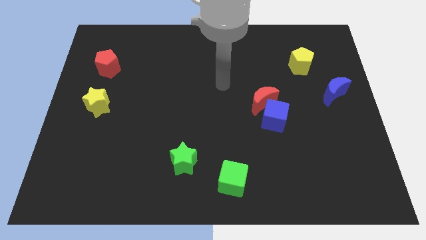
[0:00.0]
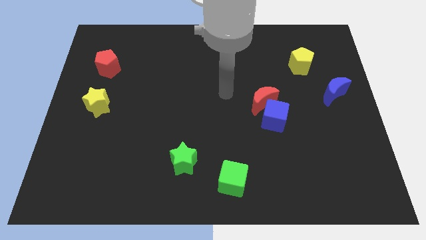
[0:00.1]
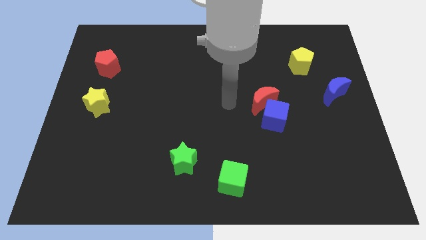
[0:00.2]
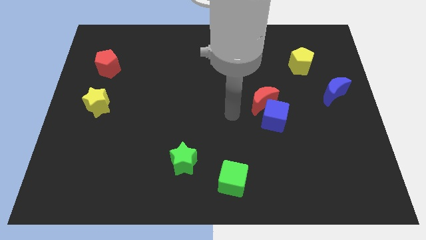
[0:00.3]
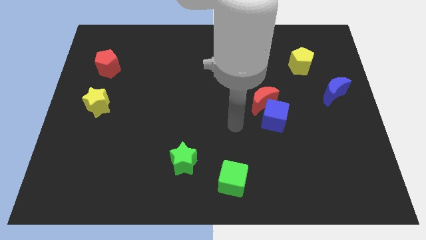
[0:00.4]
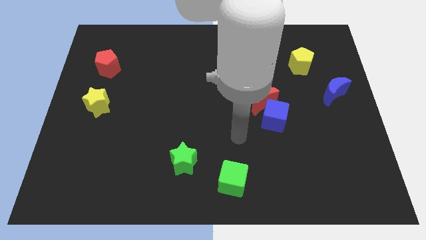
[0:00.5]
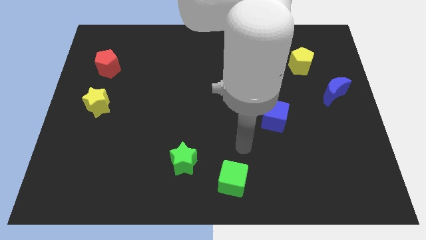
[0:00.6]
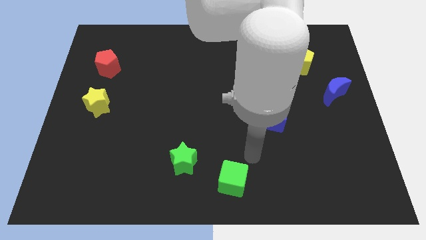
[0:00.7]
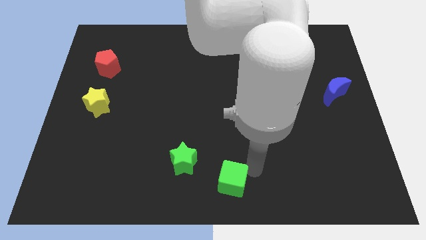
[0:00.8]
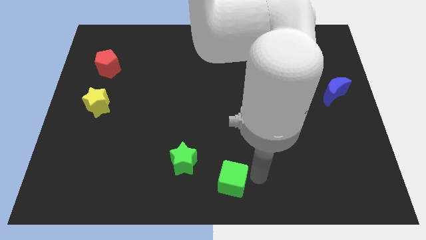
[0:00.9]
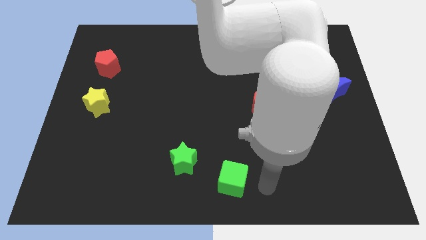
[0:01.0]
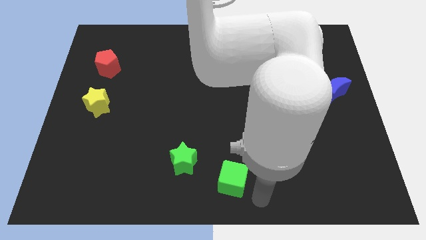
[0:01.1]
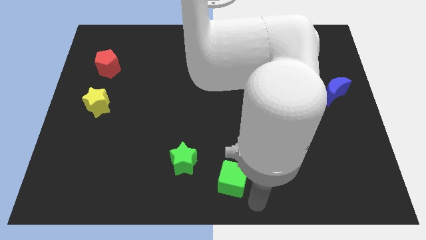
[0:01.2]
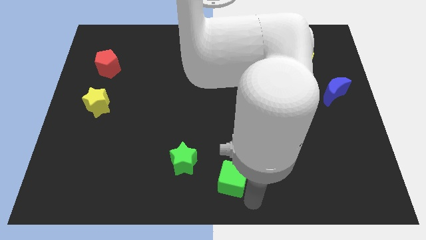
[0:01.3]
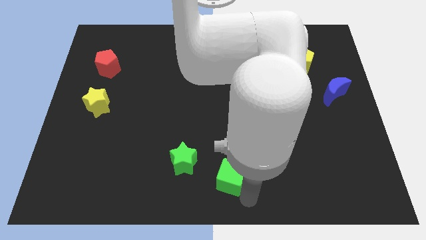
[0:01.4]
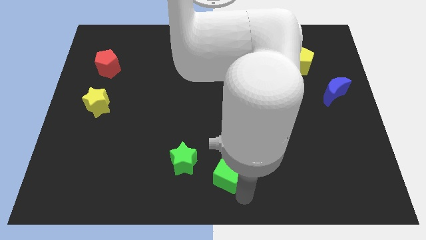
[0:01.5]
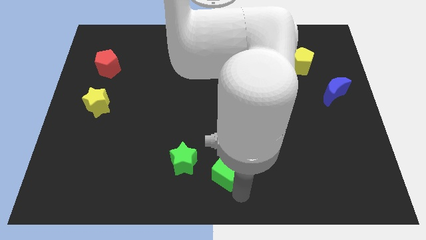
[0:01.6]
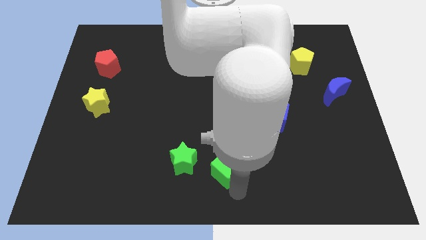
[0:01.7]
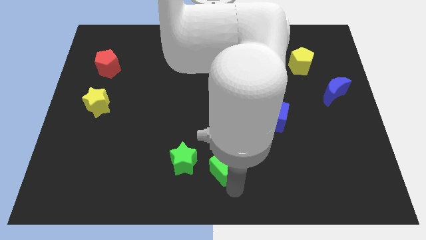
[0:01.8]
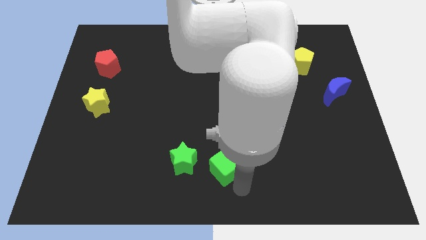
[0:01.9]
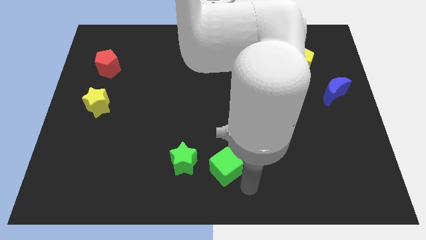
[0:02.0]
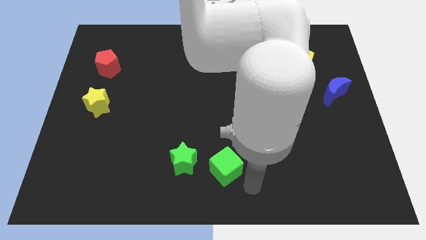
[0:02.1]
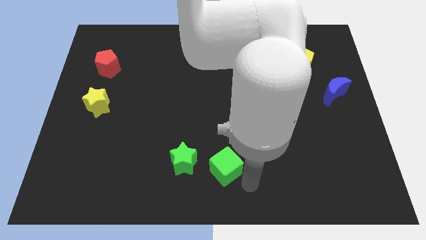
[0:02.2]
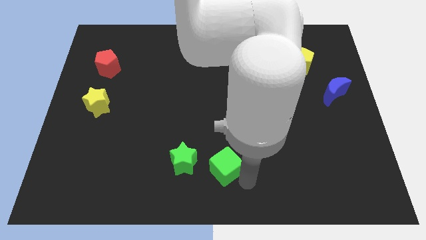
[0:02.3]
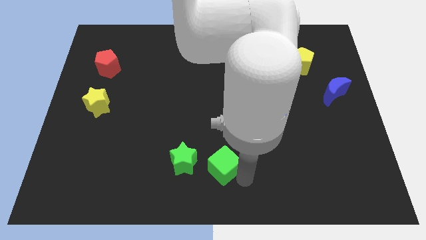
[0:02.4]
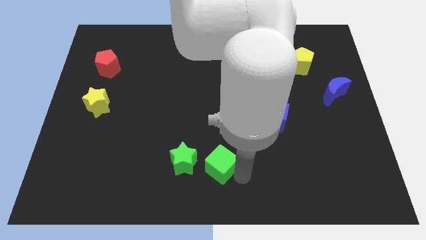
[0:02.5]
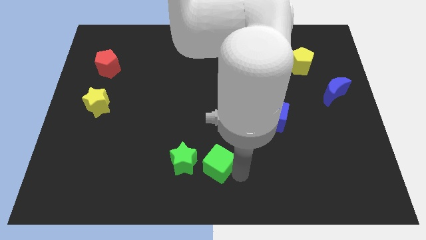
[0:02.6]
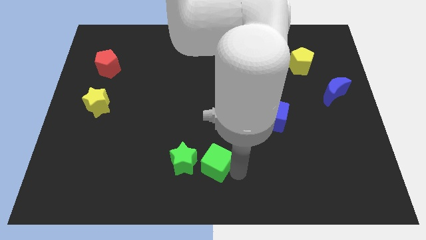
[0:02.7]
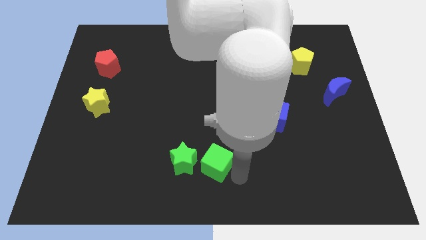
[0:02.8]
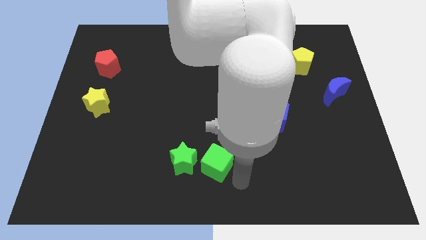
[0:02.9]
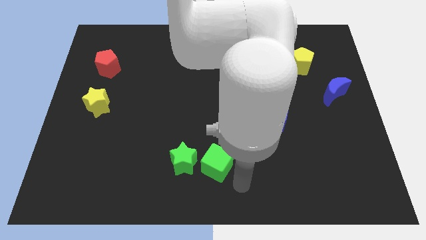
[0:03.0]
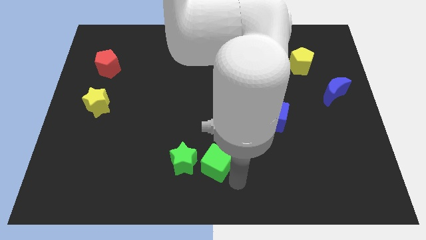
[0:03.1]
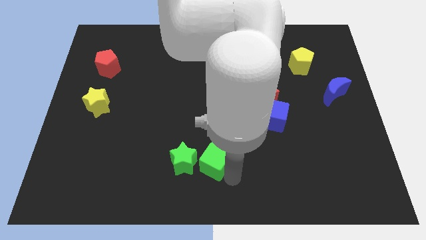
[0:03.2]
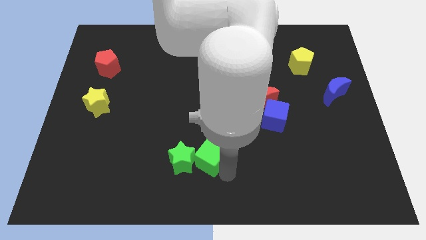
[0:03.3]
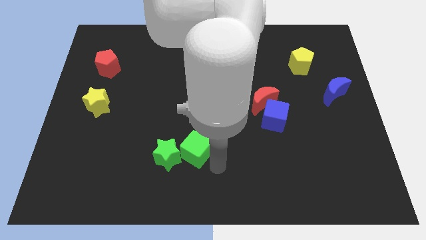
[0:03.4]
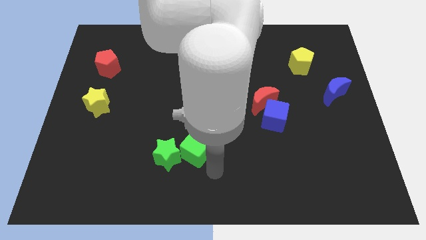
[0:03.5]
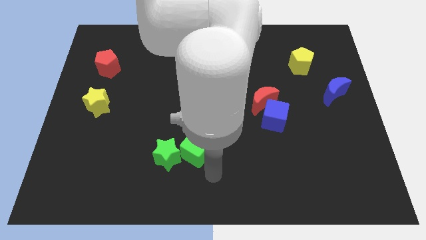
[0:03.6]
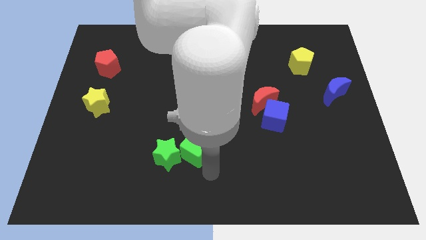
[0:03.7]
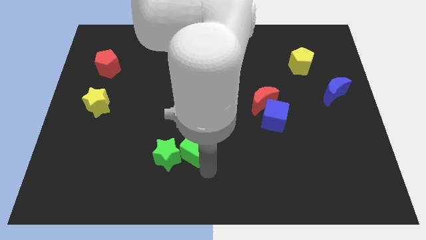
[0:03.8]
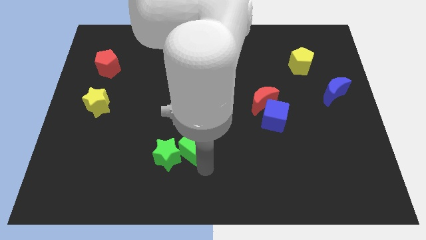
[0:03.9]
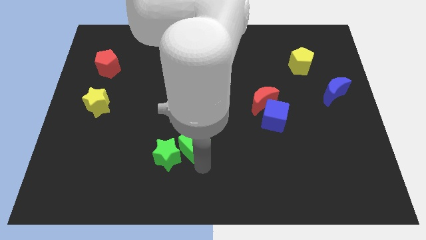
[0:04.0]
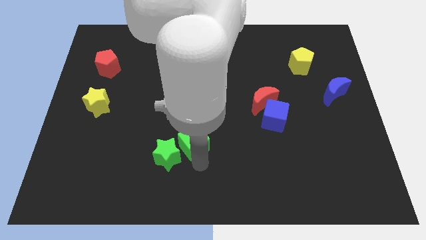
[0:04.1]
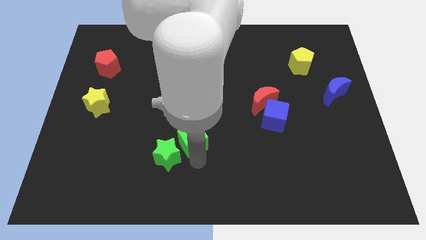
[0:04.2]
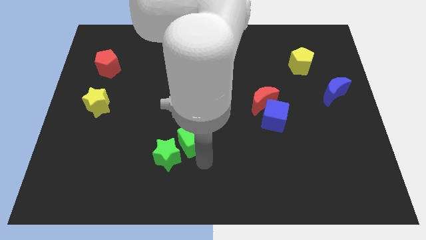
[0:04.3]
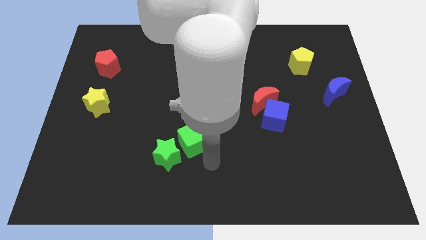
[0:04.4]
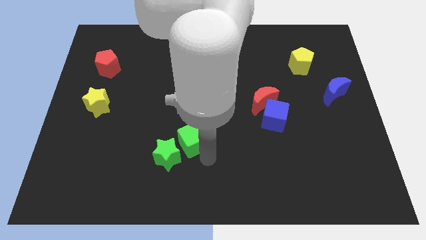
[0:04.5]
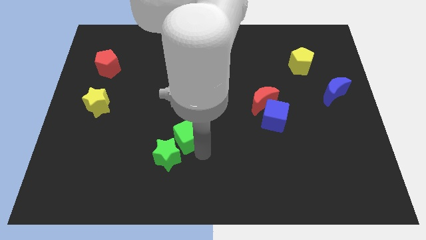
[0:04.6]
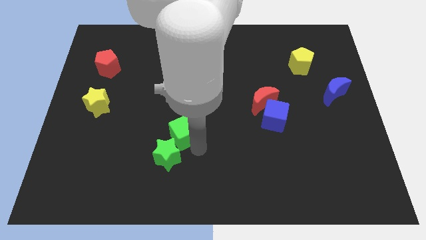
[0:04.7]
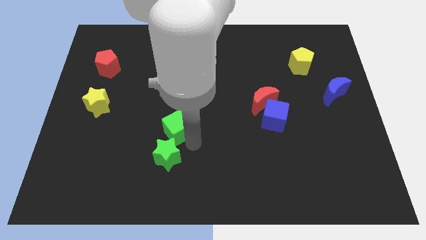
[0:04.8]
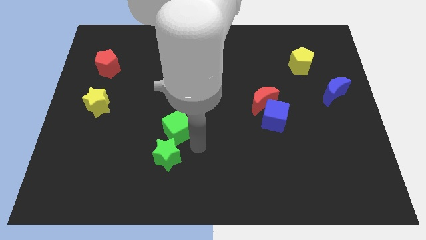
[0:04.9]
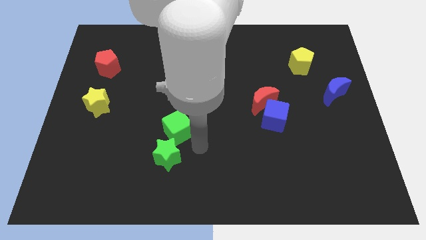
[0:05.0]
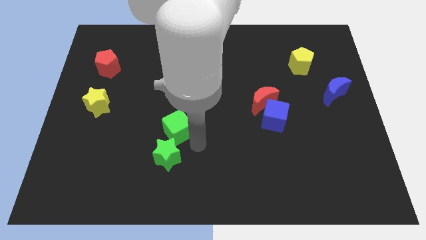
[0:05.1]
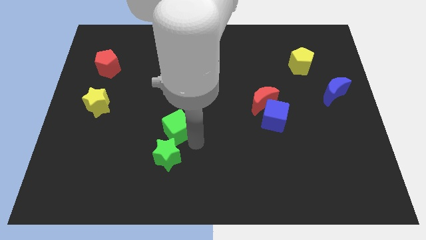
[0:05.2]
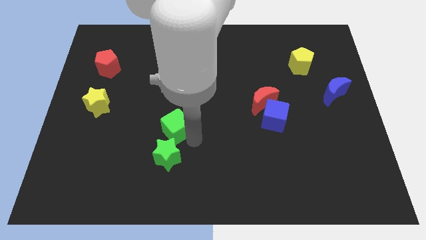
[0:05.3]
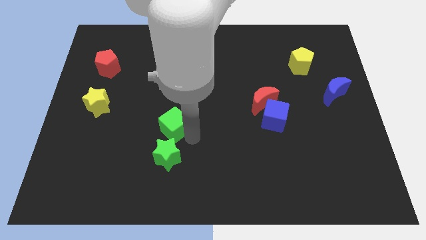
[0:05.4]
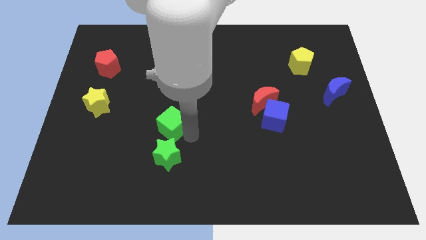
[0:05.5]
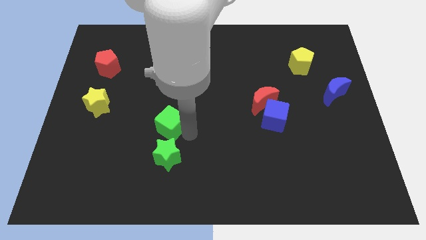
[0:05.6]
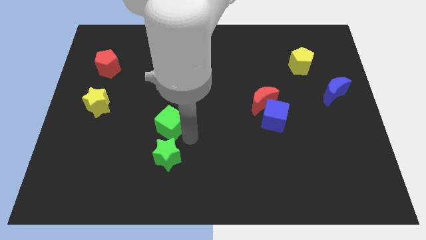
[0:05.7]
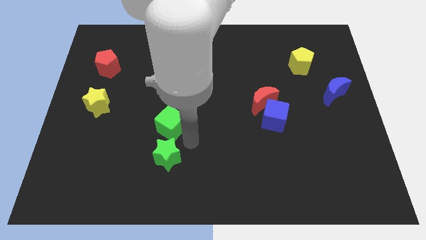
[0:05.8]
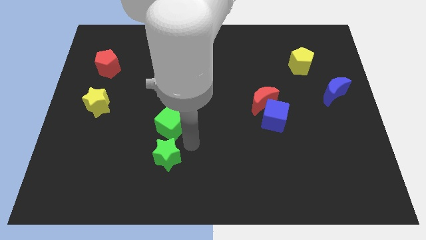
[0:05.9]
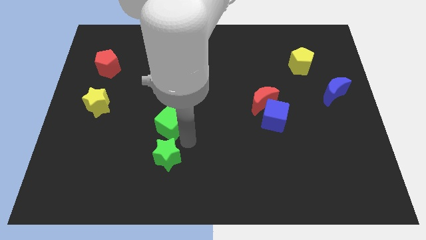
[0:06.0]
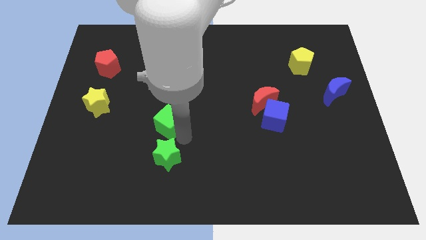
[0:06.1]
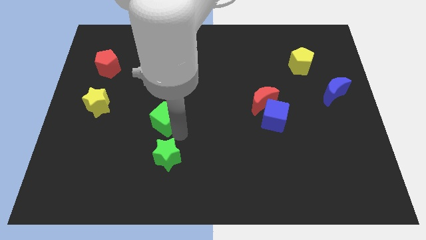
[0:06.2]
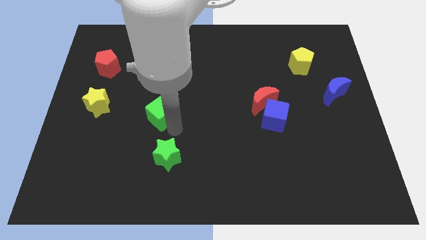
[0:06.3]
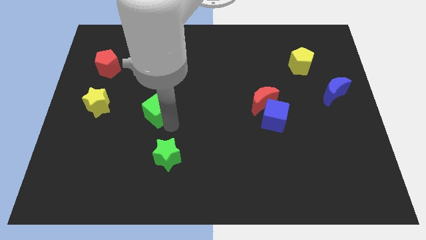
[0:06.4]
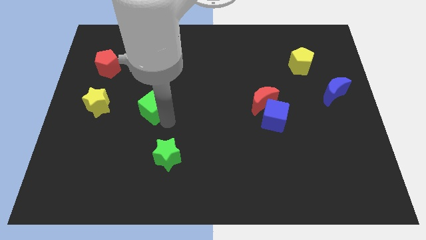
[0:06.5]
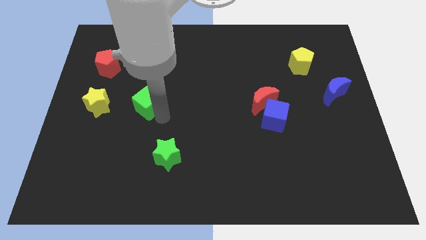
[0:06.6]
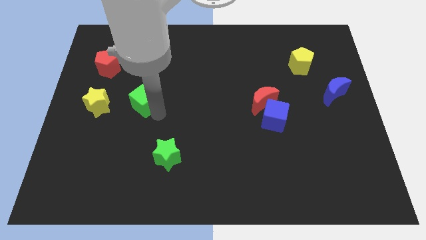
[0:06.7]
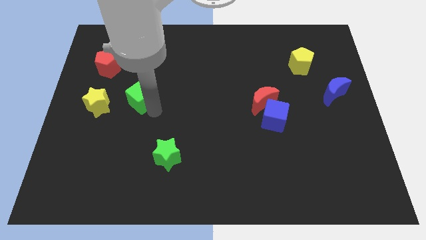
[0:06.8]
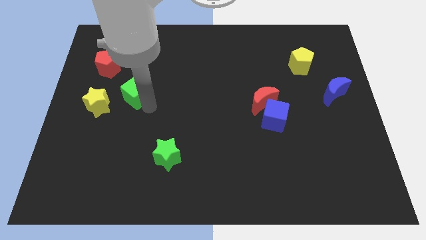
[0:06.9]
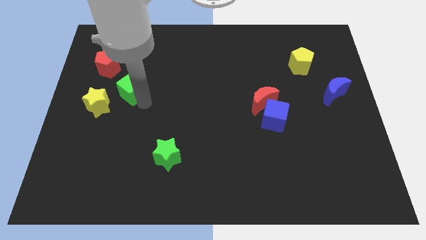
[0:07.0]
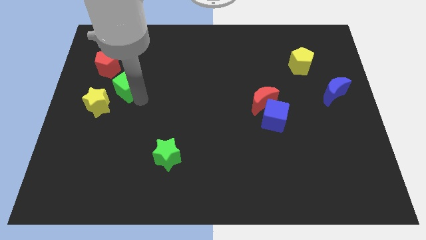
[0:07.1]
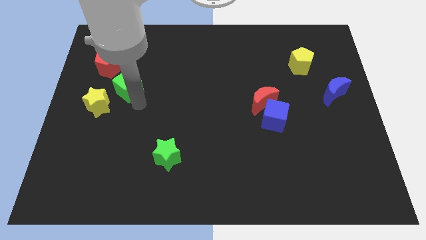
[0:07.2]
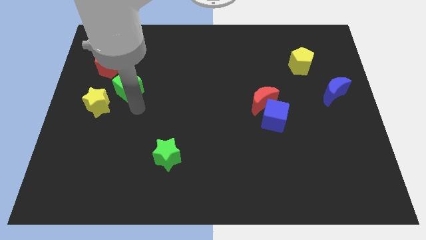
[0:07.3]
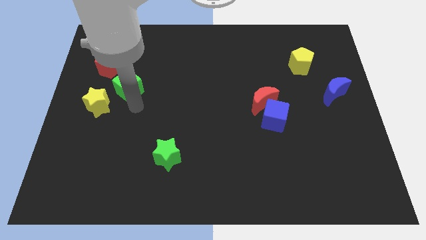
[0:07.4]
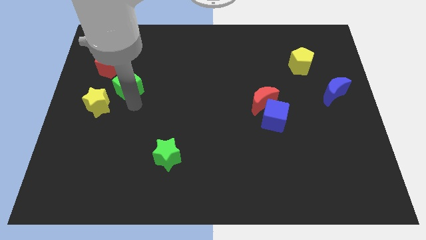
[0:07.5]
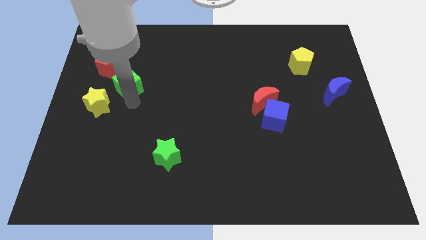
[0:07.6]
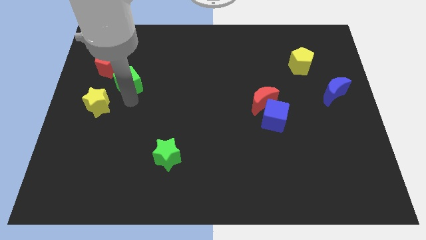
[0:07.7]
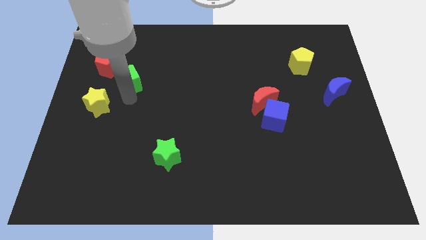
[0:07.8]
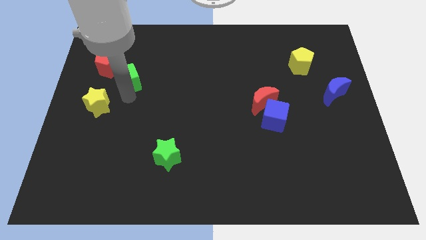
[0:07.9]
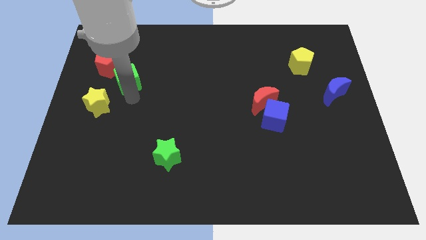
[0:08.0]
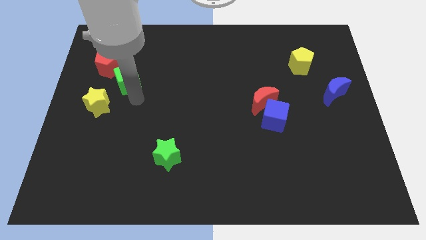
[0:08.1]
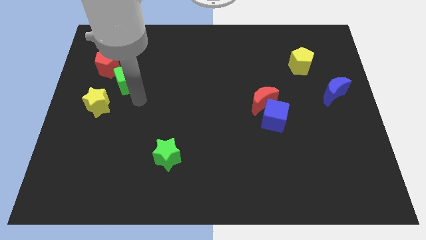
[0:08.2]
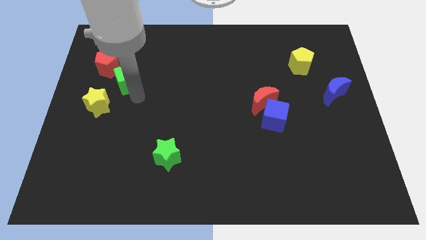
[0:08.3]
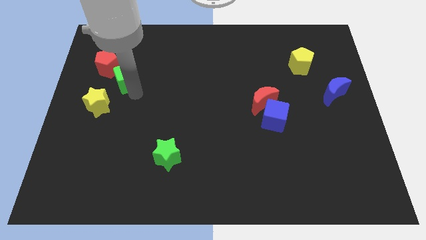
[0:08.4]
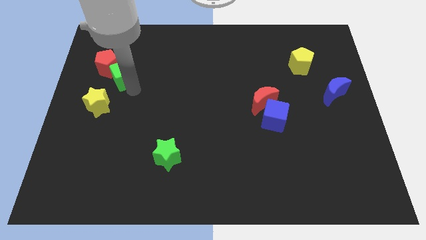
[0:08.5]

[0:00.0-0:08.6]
move the green cube next to the red pentagon
